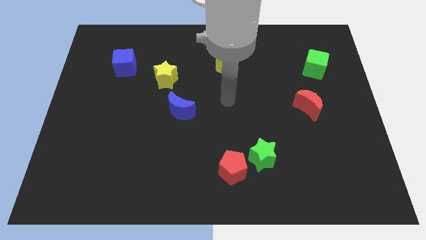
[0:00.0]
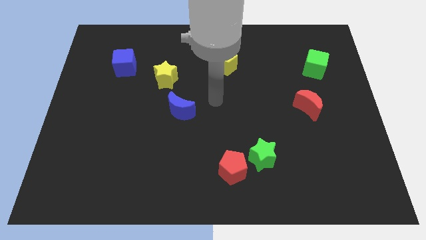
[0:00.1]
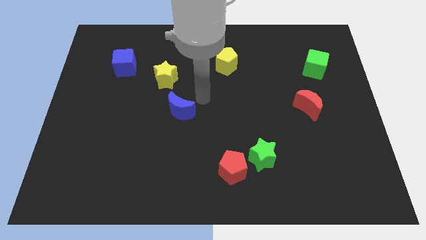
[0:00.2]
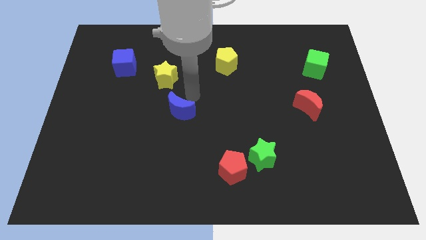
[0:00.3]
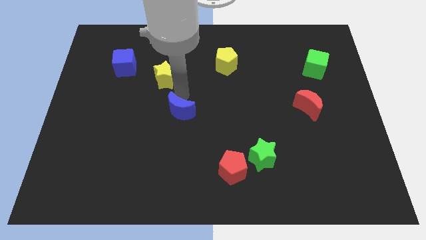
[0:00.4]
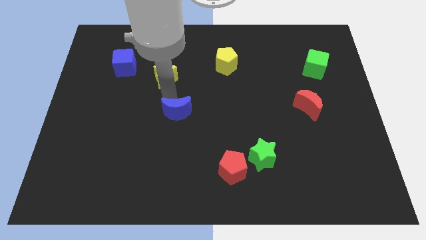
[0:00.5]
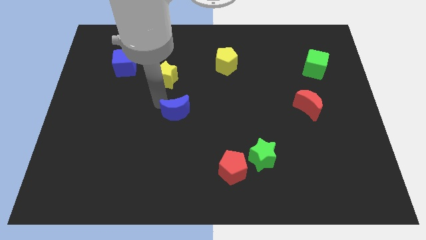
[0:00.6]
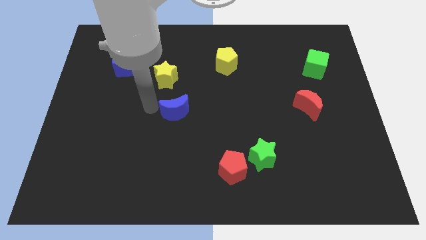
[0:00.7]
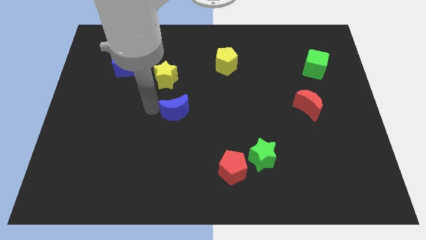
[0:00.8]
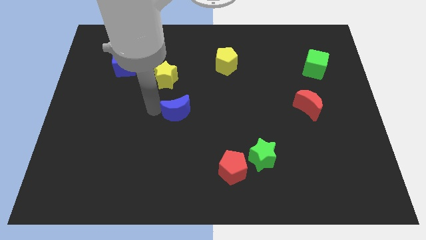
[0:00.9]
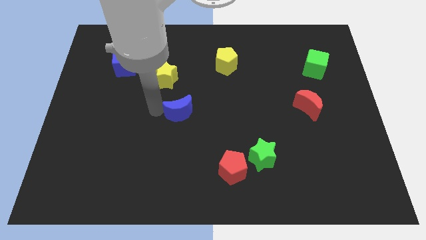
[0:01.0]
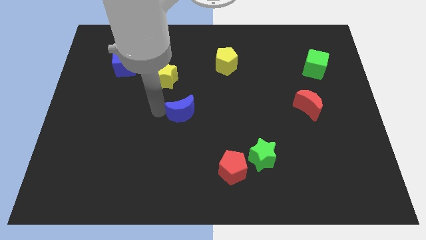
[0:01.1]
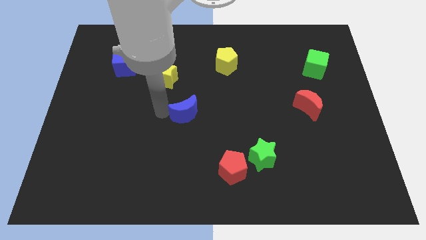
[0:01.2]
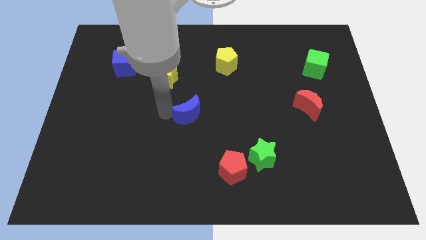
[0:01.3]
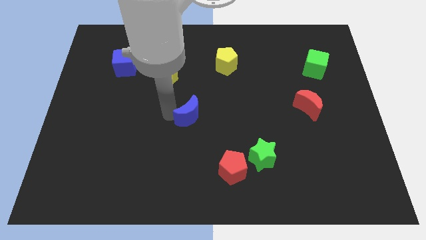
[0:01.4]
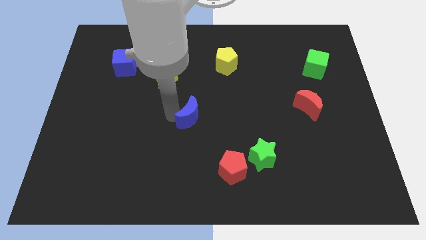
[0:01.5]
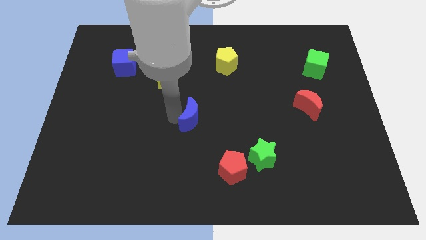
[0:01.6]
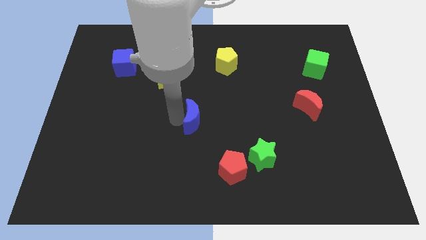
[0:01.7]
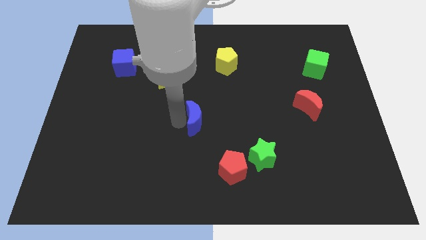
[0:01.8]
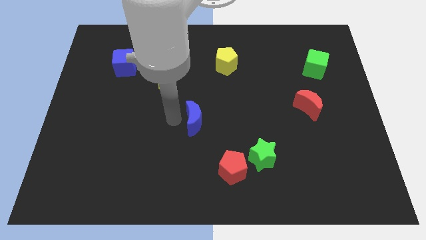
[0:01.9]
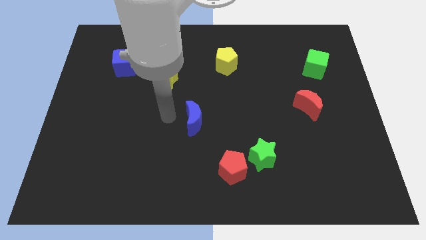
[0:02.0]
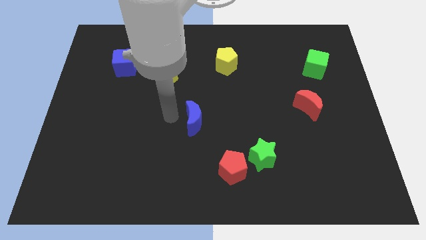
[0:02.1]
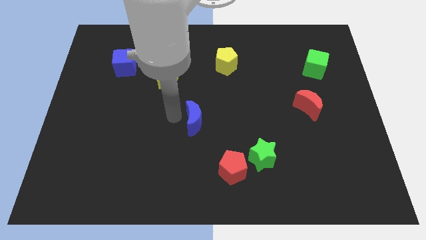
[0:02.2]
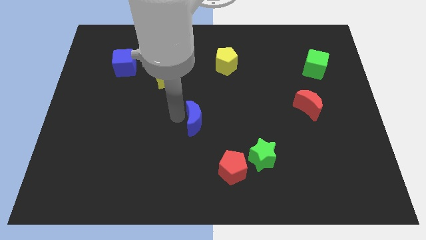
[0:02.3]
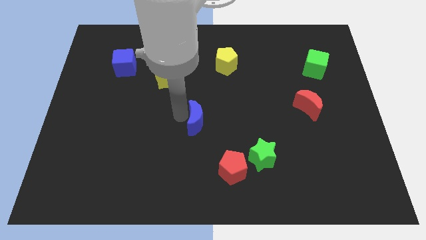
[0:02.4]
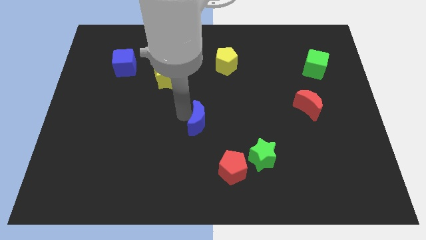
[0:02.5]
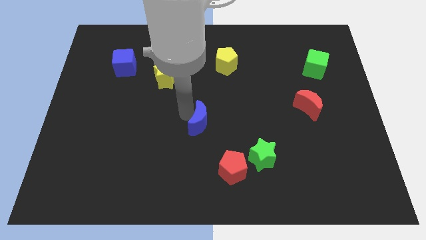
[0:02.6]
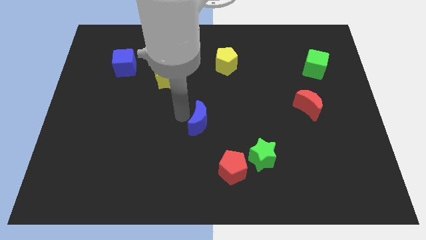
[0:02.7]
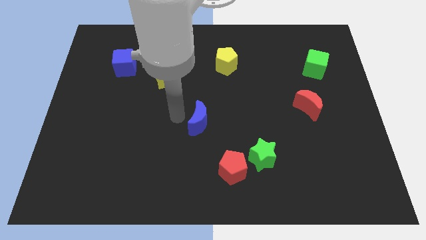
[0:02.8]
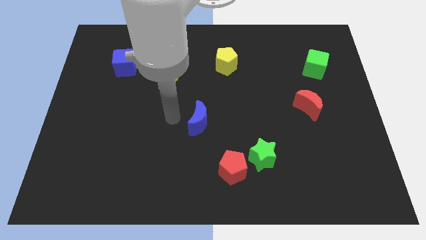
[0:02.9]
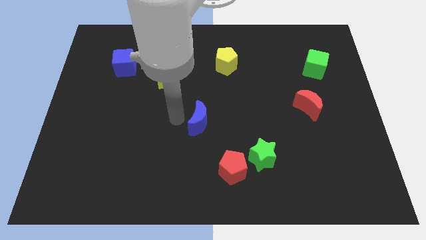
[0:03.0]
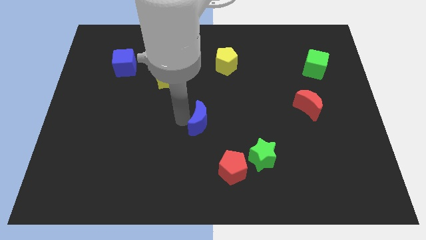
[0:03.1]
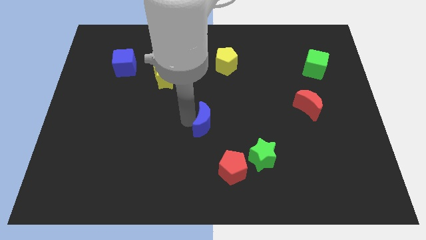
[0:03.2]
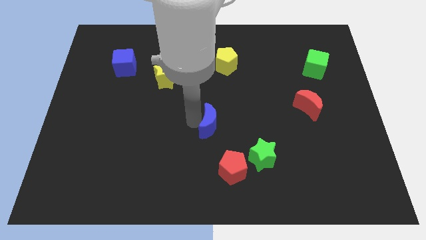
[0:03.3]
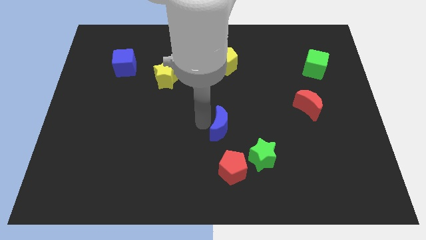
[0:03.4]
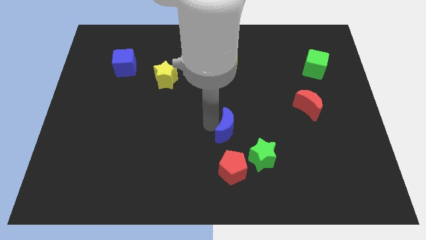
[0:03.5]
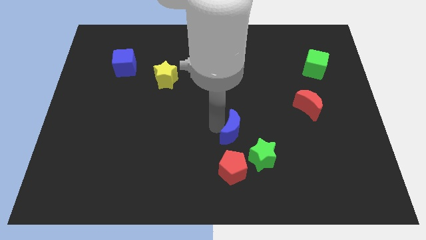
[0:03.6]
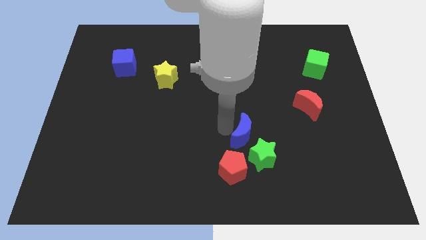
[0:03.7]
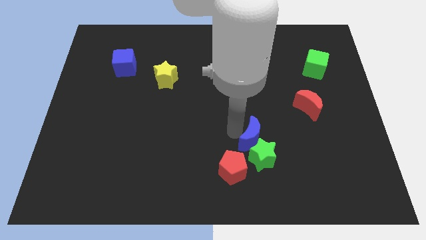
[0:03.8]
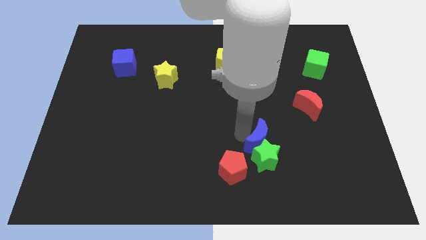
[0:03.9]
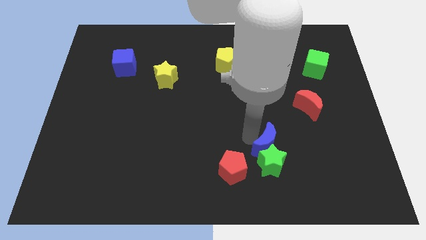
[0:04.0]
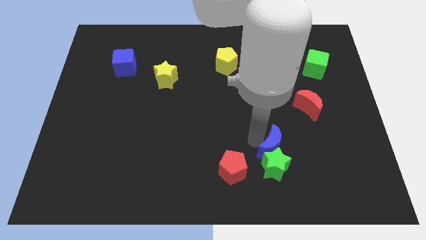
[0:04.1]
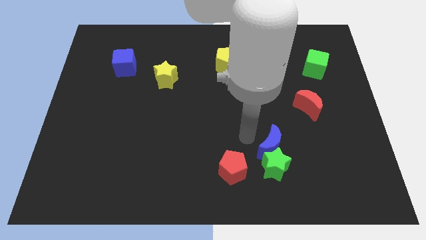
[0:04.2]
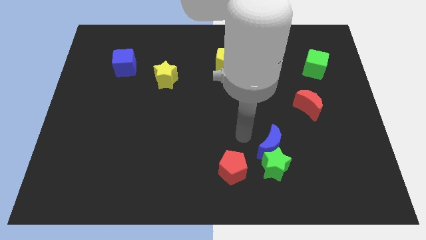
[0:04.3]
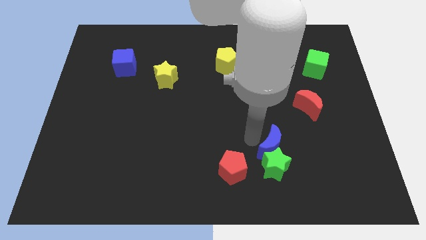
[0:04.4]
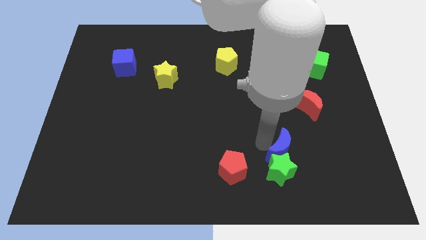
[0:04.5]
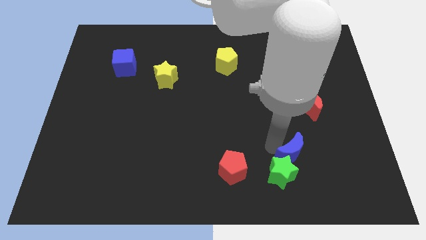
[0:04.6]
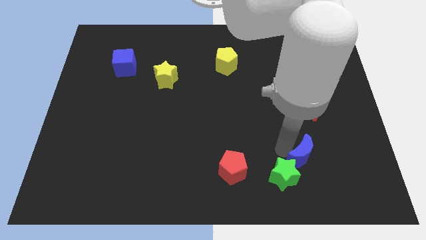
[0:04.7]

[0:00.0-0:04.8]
move the blue moon right of the green star

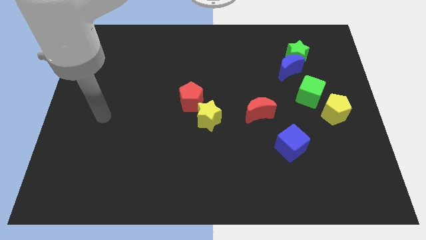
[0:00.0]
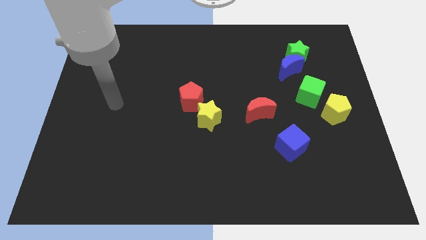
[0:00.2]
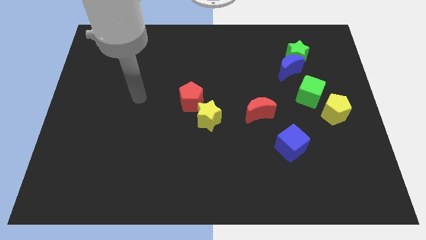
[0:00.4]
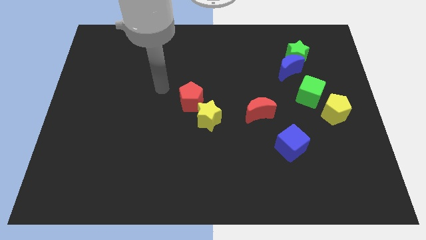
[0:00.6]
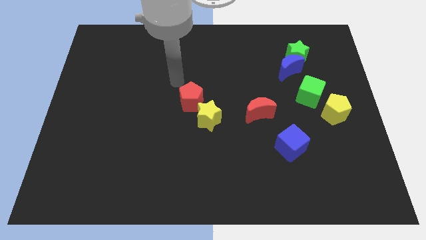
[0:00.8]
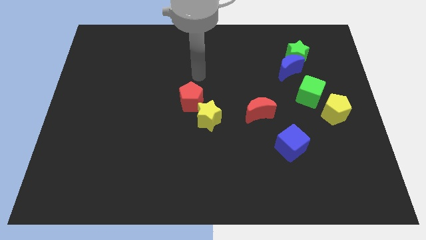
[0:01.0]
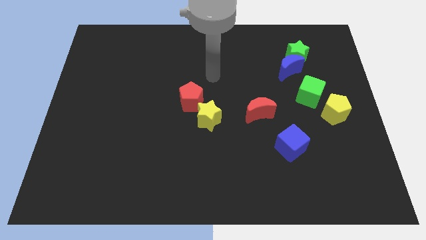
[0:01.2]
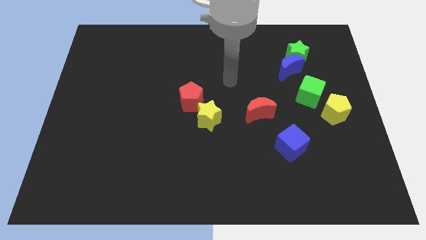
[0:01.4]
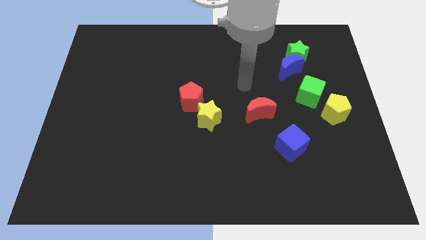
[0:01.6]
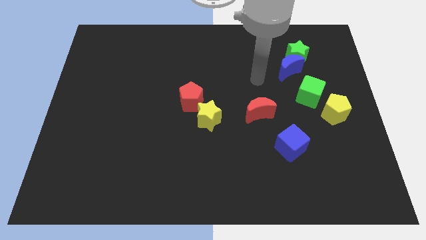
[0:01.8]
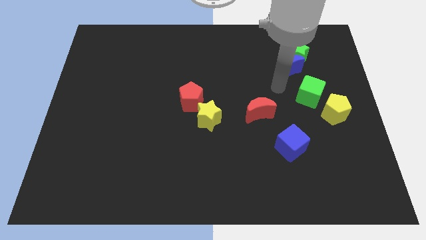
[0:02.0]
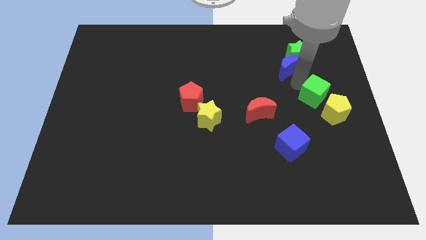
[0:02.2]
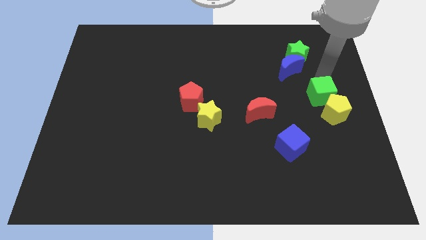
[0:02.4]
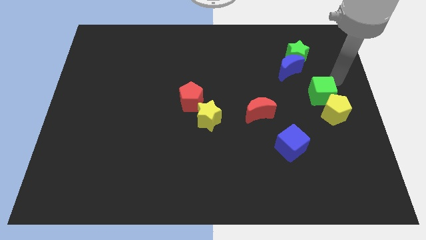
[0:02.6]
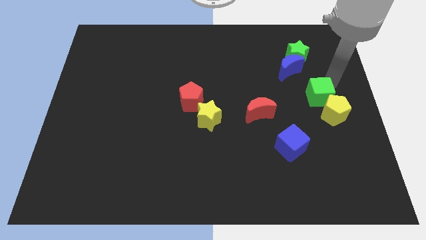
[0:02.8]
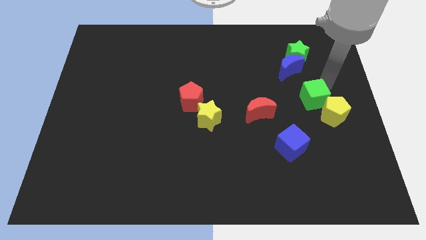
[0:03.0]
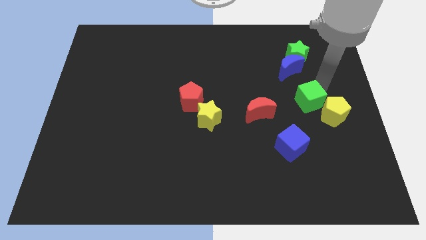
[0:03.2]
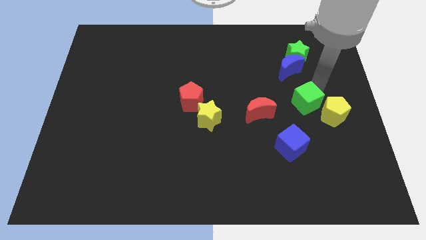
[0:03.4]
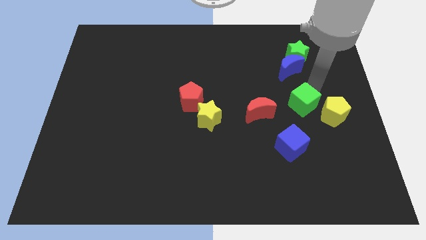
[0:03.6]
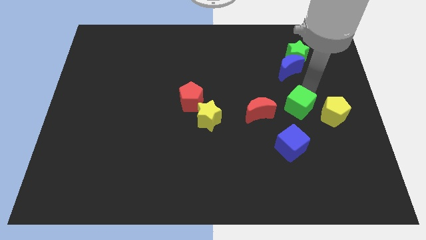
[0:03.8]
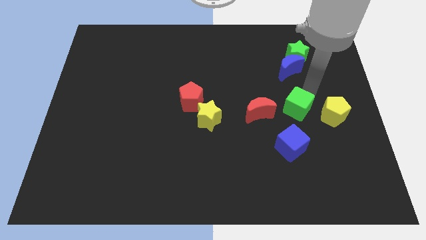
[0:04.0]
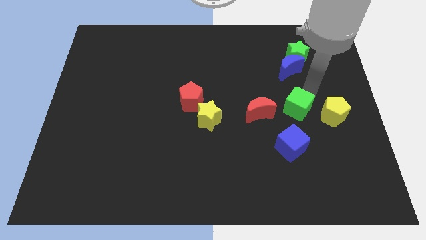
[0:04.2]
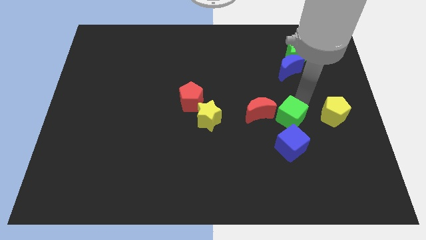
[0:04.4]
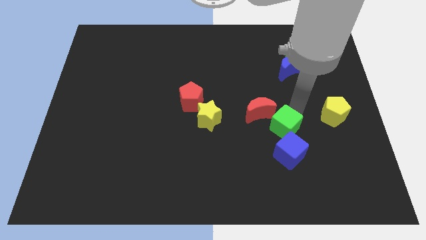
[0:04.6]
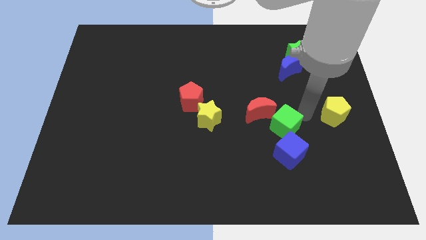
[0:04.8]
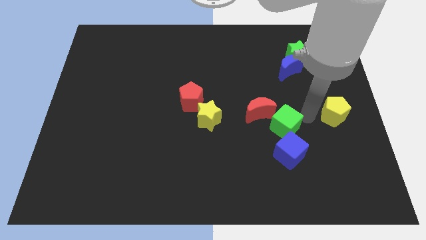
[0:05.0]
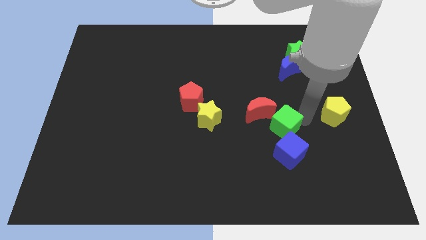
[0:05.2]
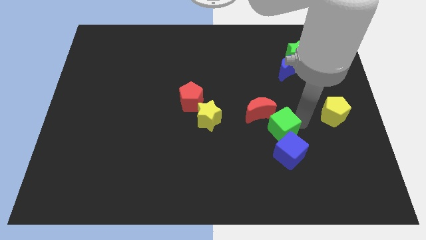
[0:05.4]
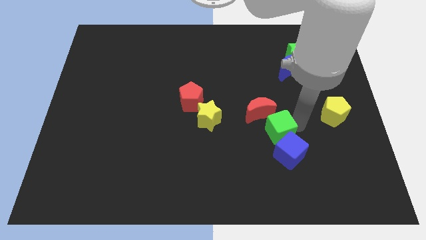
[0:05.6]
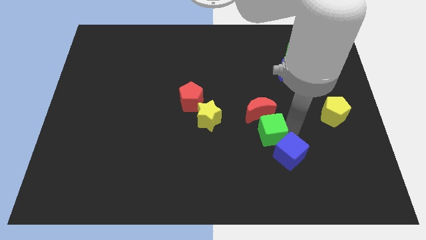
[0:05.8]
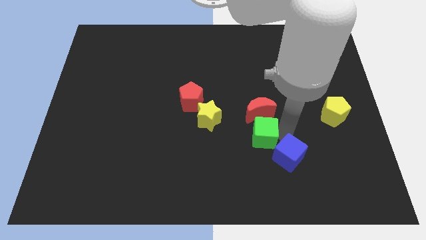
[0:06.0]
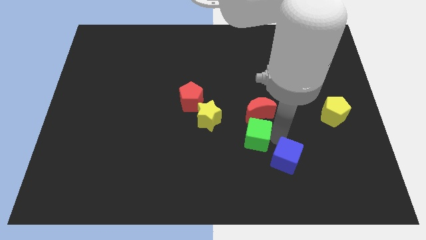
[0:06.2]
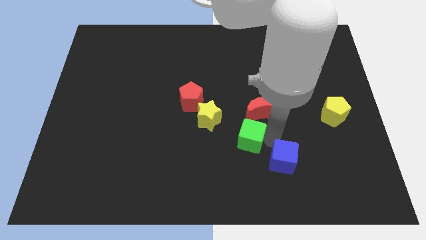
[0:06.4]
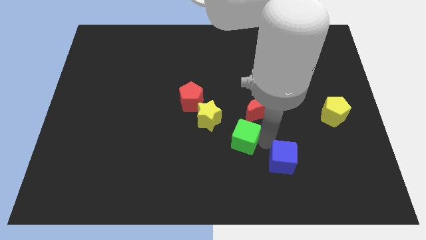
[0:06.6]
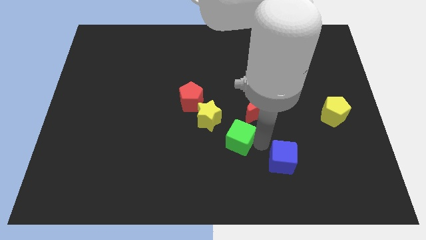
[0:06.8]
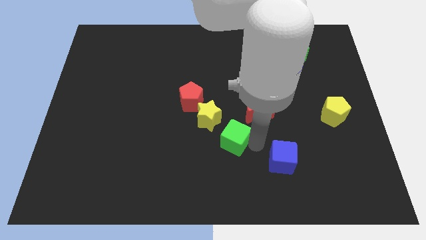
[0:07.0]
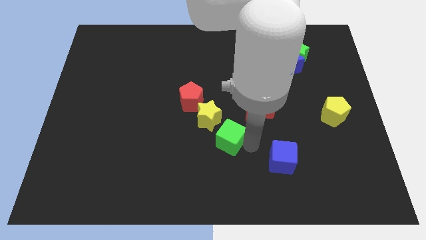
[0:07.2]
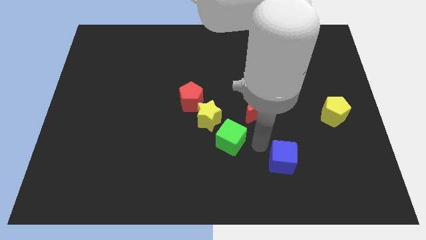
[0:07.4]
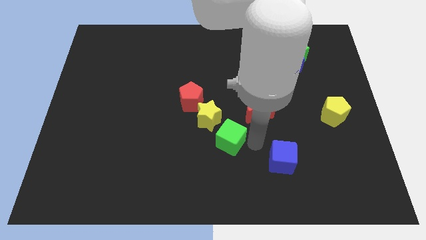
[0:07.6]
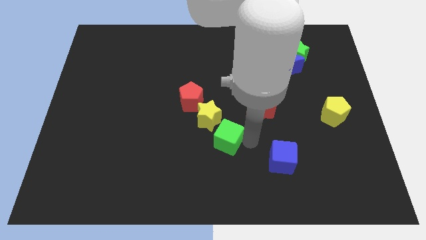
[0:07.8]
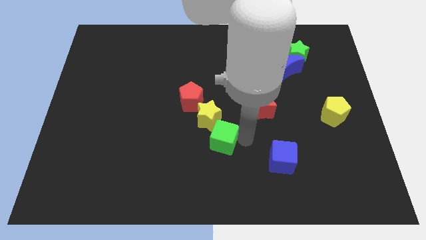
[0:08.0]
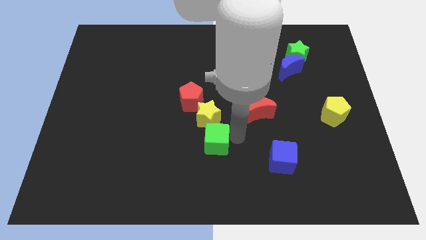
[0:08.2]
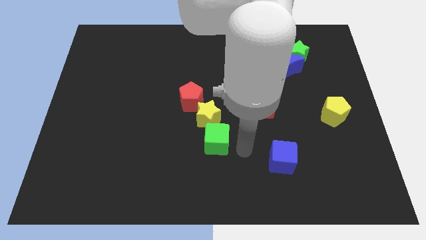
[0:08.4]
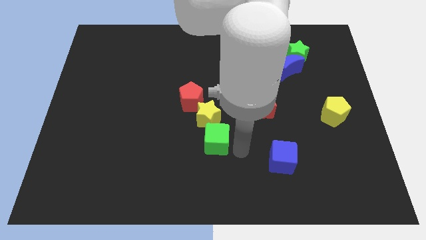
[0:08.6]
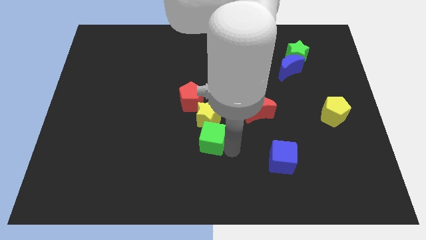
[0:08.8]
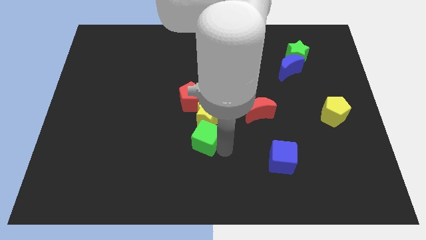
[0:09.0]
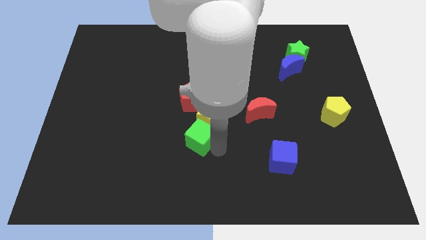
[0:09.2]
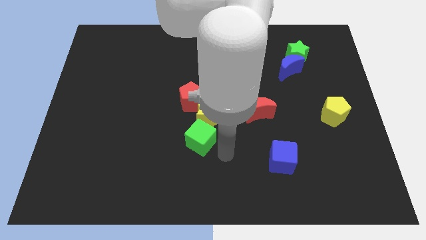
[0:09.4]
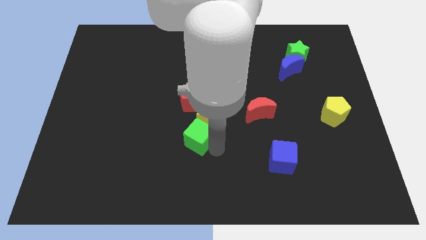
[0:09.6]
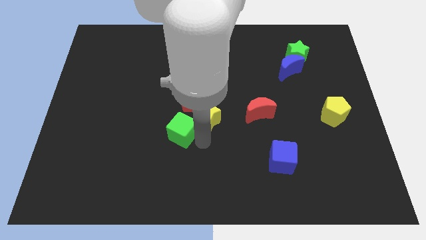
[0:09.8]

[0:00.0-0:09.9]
move the green cube just left of the yellow star
